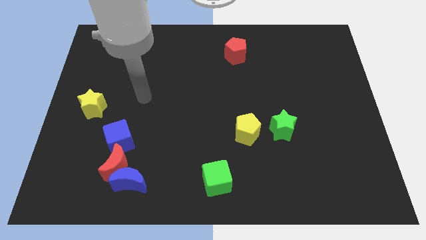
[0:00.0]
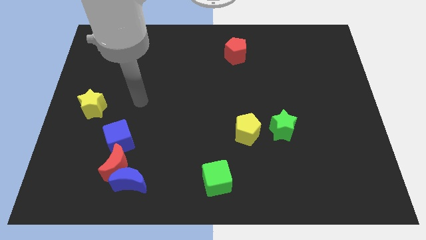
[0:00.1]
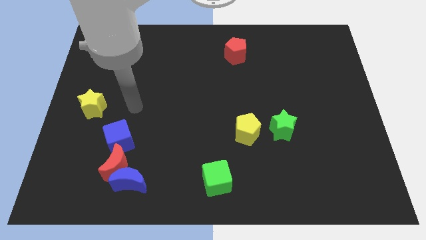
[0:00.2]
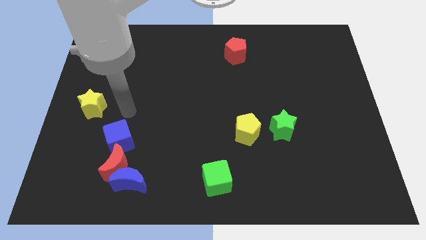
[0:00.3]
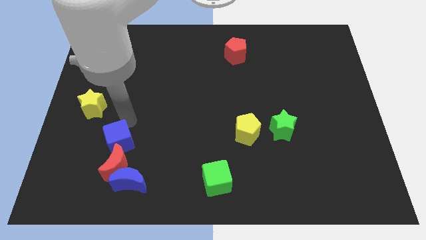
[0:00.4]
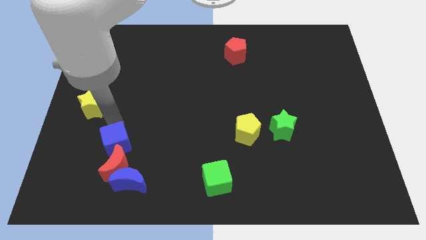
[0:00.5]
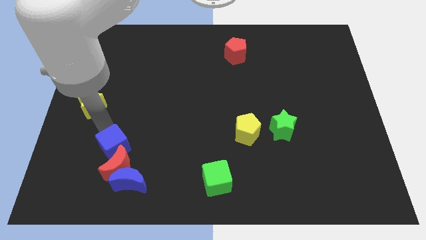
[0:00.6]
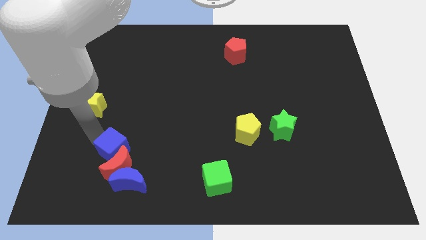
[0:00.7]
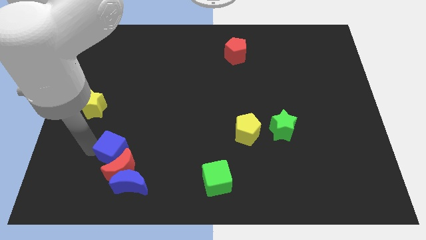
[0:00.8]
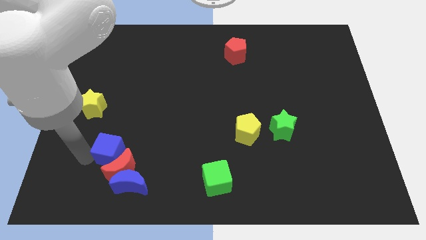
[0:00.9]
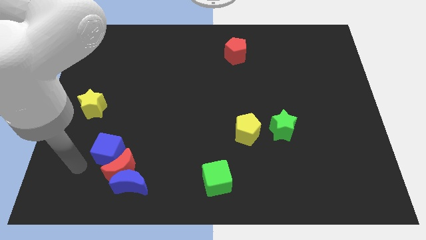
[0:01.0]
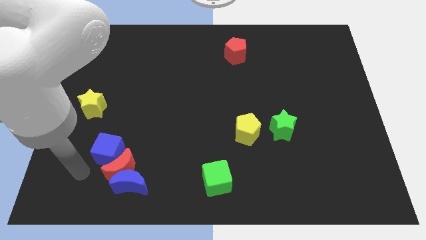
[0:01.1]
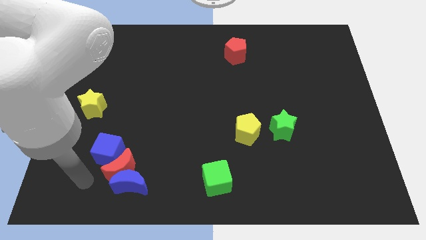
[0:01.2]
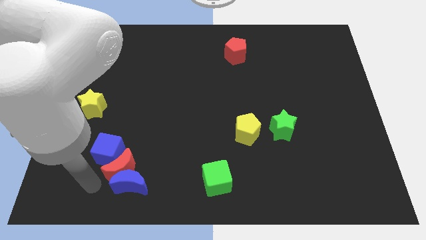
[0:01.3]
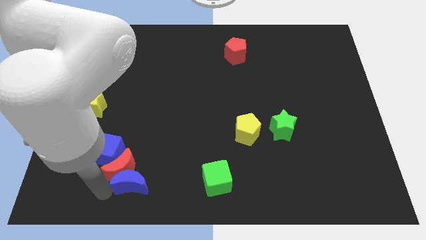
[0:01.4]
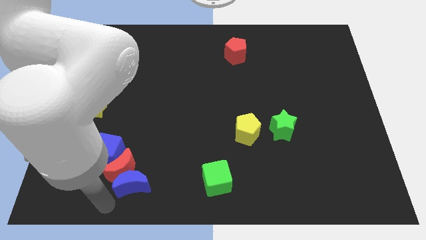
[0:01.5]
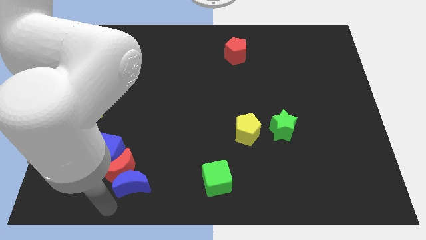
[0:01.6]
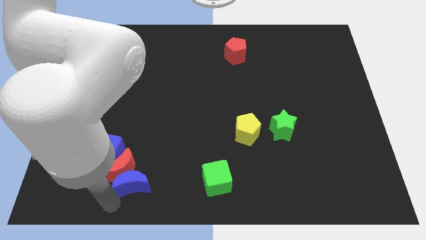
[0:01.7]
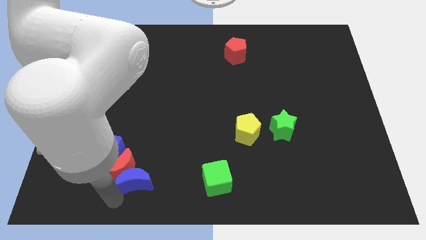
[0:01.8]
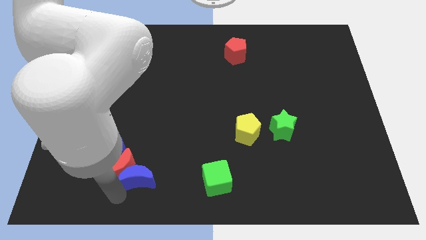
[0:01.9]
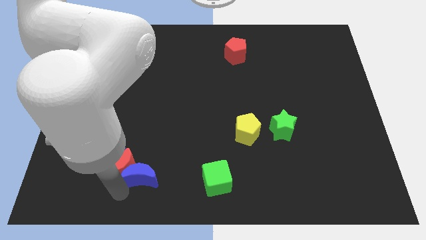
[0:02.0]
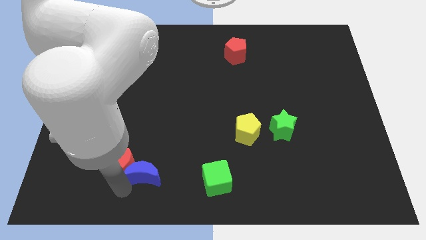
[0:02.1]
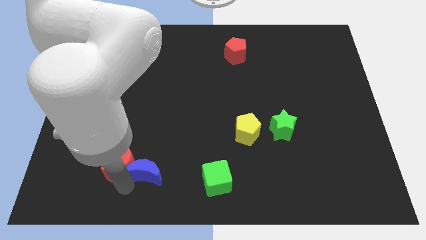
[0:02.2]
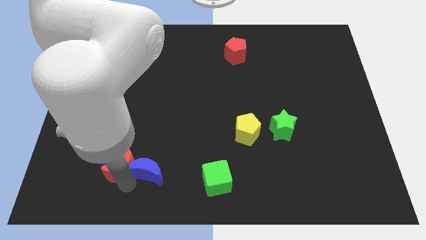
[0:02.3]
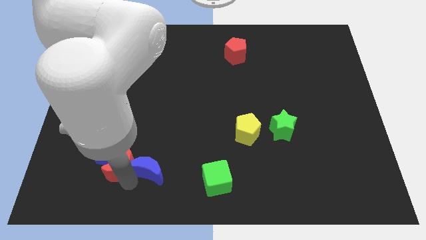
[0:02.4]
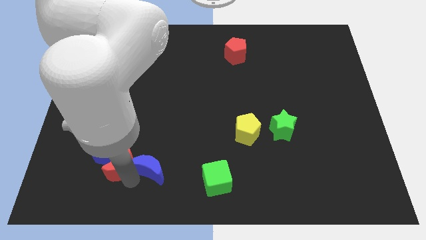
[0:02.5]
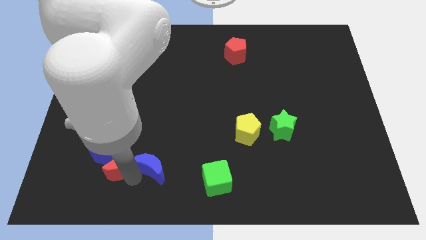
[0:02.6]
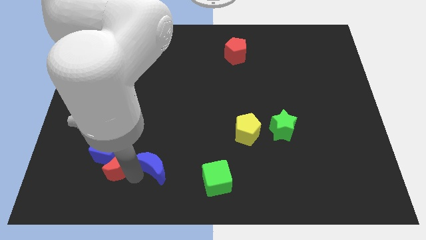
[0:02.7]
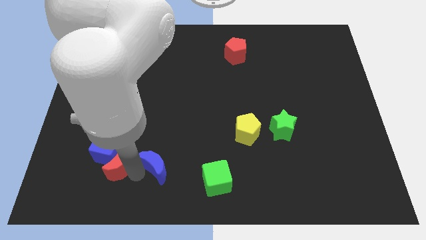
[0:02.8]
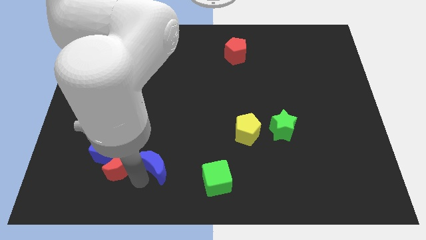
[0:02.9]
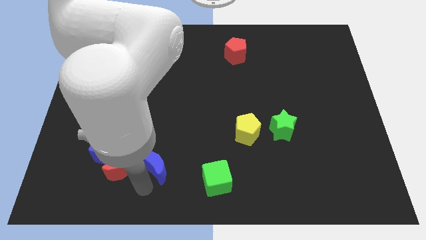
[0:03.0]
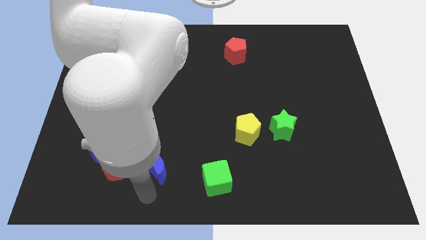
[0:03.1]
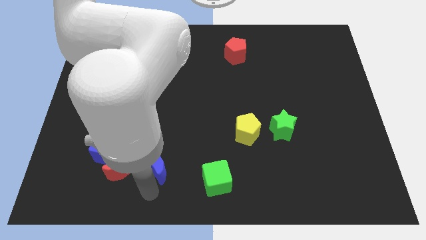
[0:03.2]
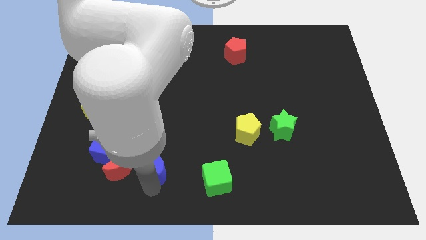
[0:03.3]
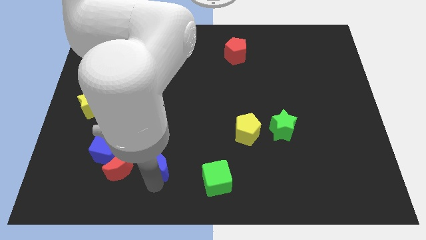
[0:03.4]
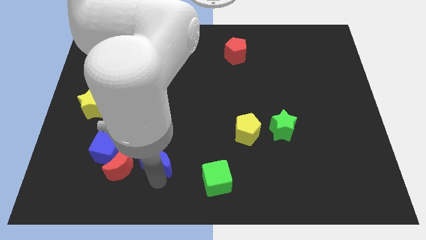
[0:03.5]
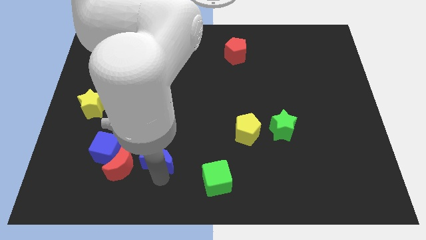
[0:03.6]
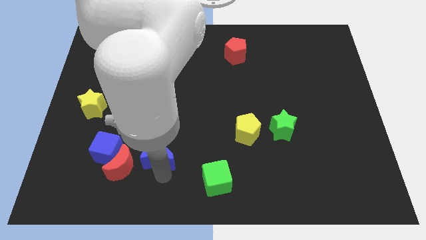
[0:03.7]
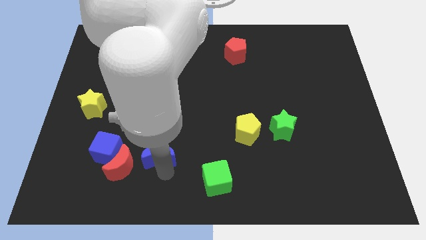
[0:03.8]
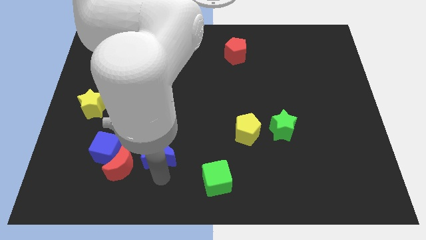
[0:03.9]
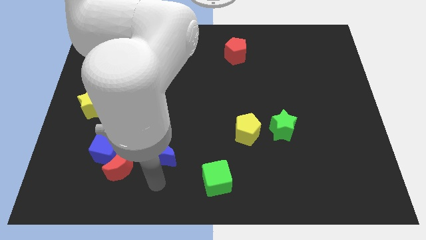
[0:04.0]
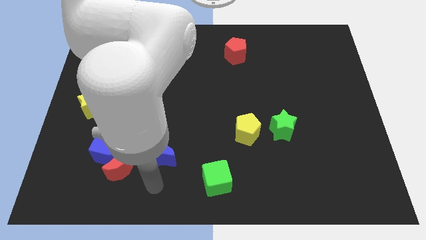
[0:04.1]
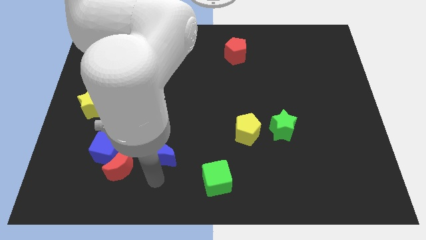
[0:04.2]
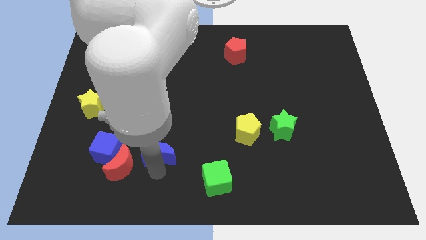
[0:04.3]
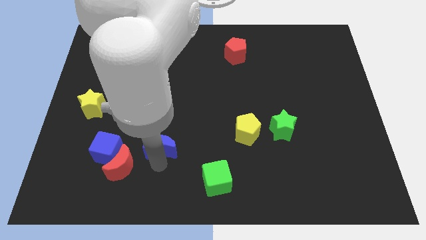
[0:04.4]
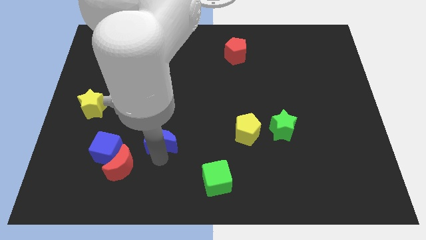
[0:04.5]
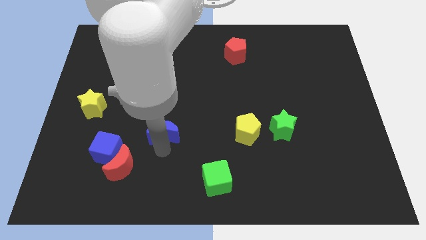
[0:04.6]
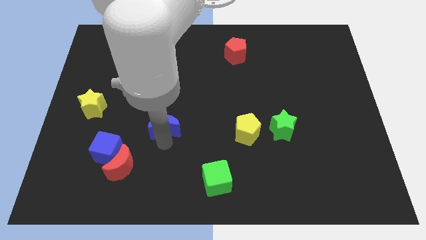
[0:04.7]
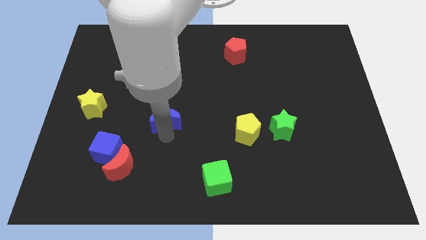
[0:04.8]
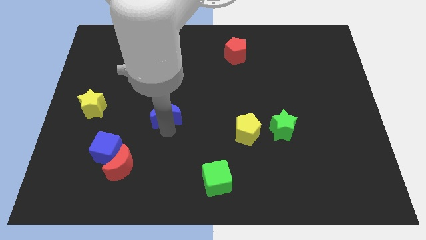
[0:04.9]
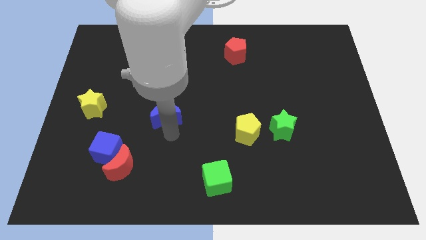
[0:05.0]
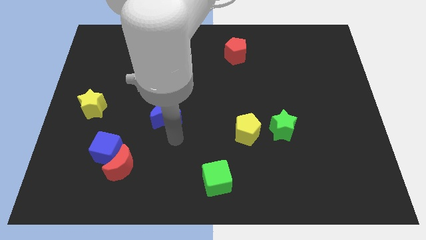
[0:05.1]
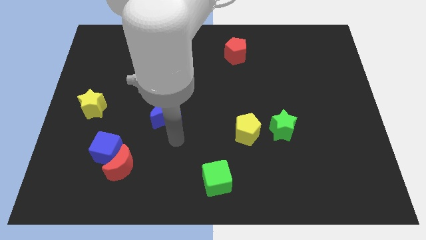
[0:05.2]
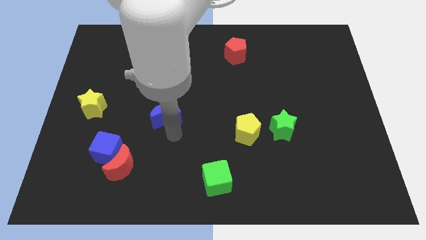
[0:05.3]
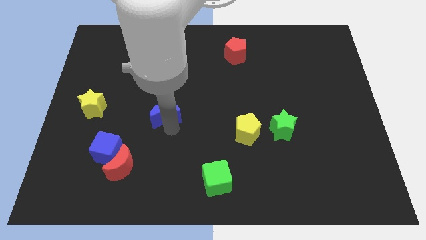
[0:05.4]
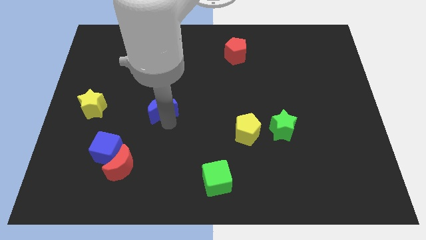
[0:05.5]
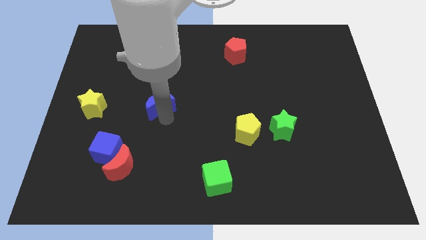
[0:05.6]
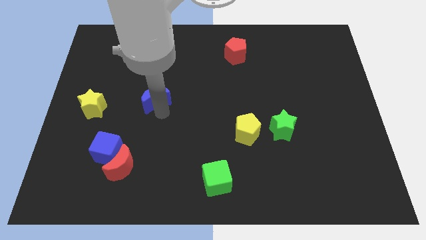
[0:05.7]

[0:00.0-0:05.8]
slide the blue moon upwards

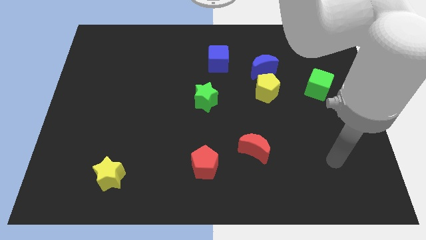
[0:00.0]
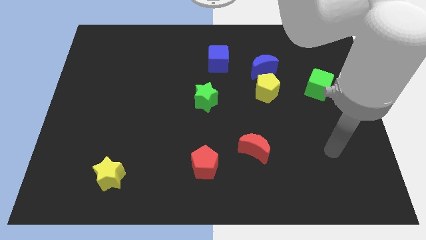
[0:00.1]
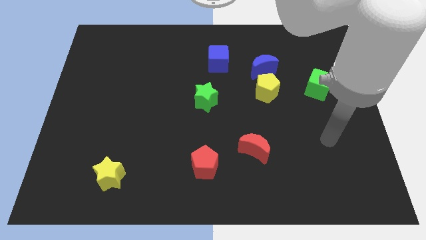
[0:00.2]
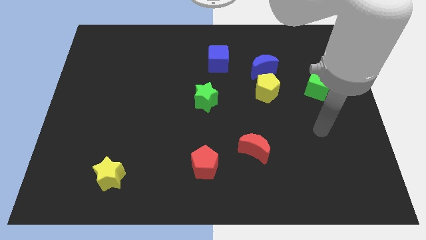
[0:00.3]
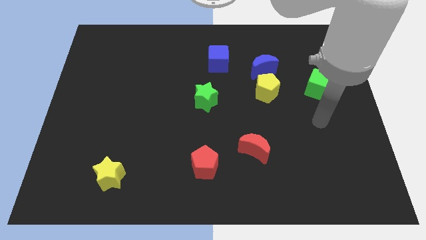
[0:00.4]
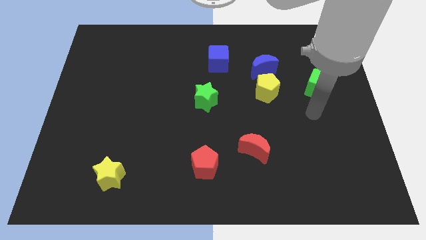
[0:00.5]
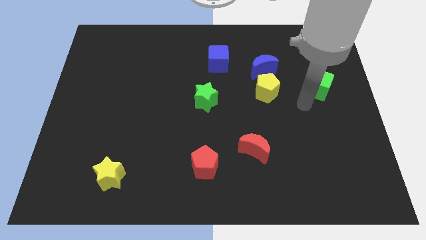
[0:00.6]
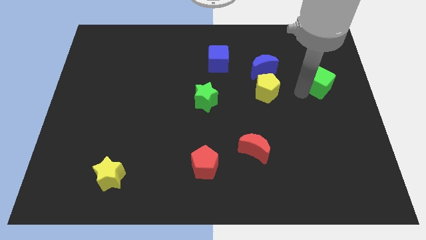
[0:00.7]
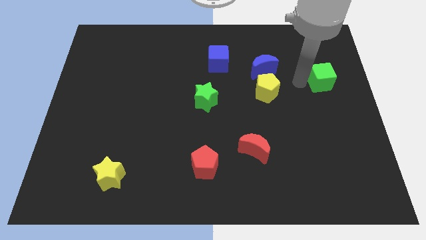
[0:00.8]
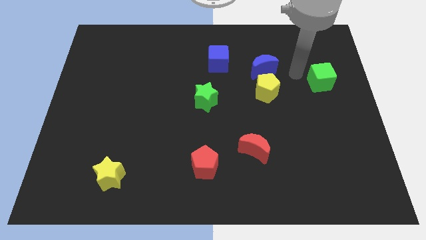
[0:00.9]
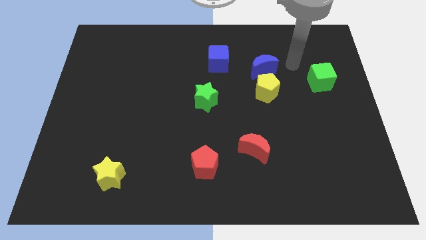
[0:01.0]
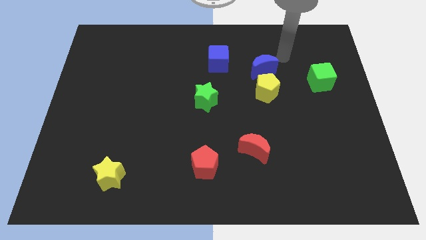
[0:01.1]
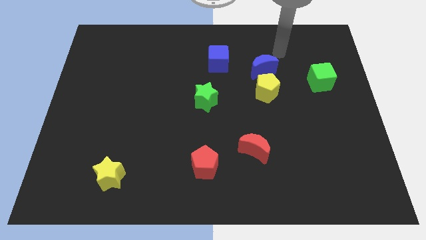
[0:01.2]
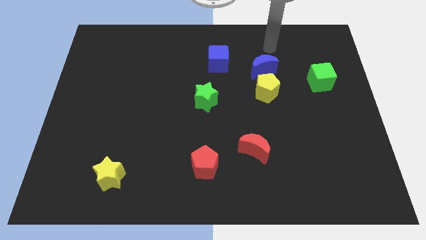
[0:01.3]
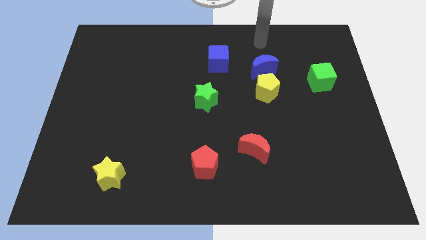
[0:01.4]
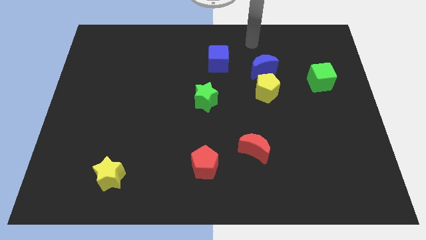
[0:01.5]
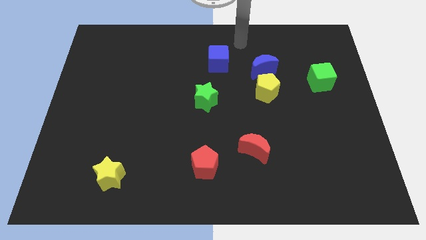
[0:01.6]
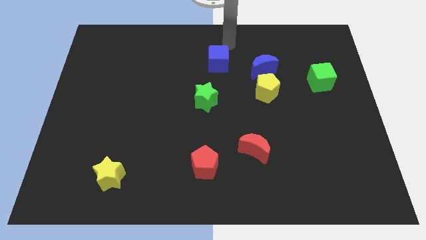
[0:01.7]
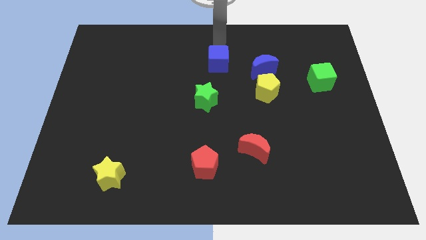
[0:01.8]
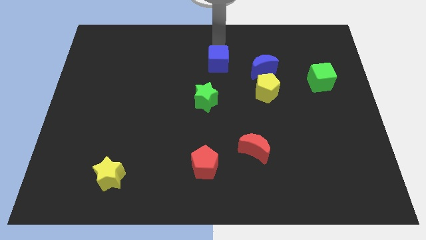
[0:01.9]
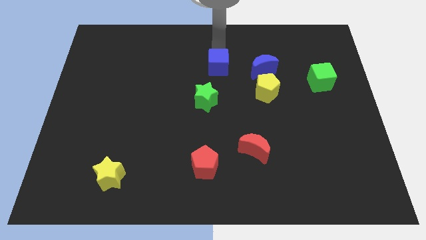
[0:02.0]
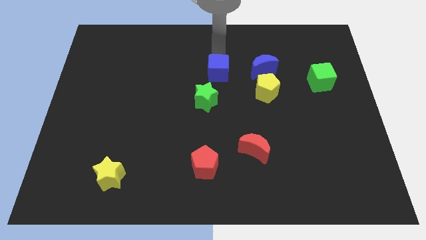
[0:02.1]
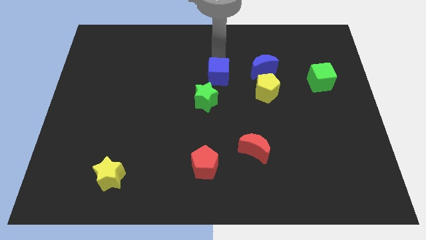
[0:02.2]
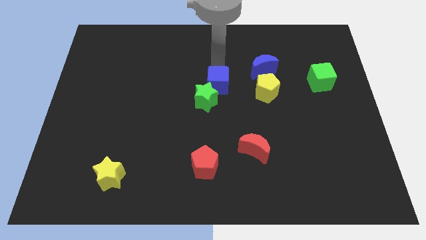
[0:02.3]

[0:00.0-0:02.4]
move the blue cube down a little

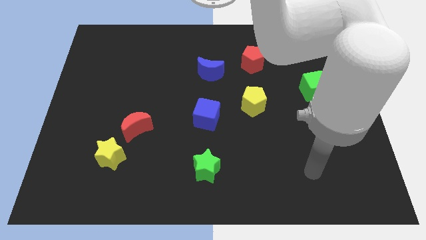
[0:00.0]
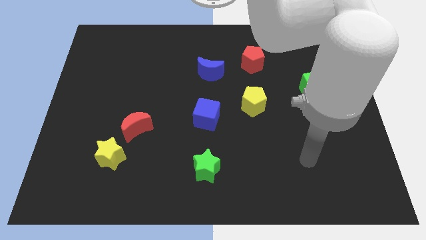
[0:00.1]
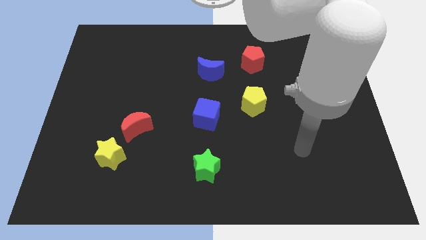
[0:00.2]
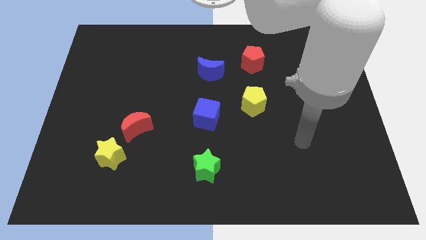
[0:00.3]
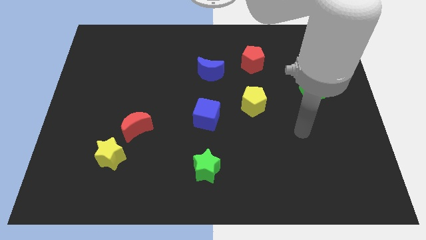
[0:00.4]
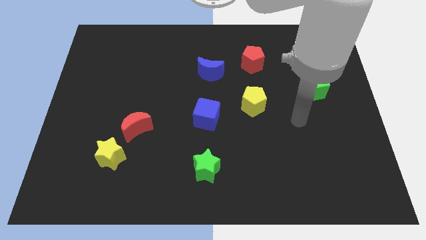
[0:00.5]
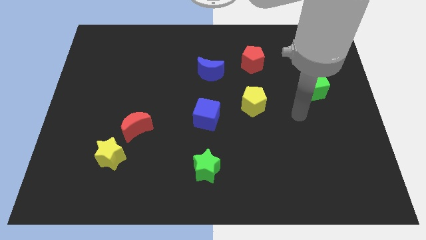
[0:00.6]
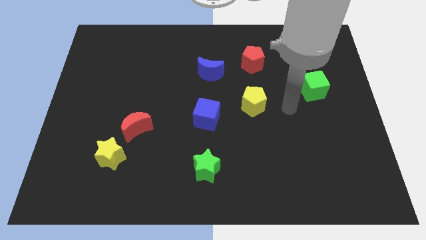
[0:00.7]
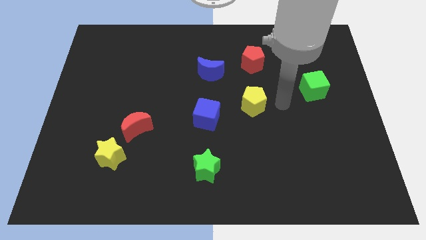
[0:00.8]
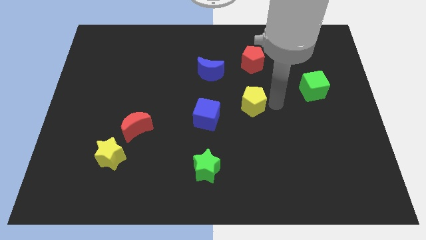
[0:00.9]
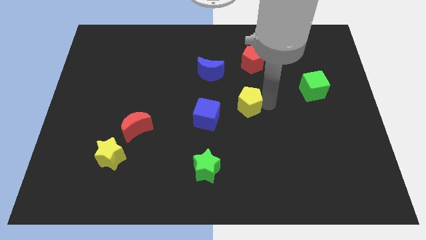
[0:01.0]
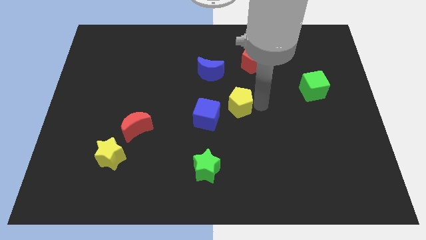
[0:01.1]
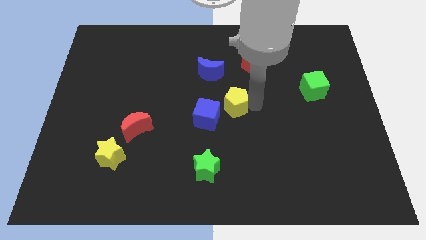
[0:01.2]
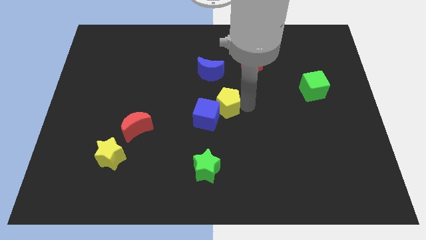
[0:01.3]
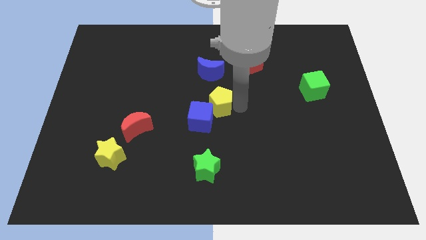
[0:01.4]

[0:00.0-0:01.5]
slightly move the yellow pentagon left
